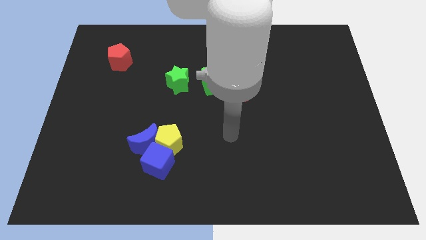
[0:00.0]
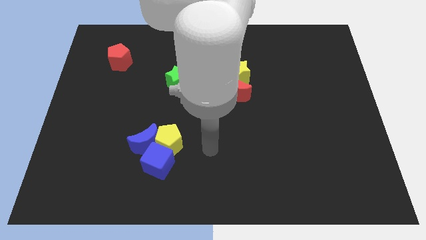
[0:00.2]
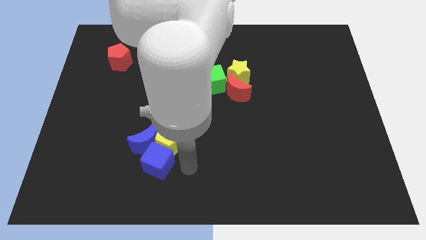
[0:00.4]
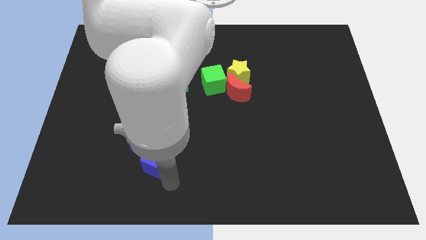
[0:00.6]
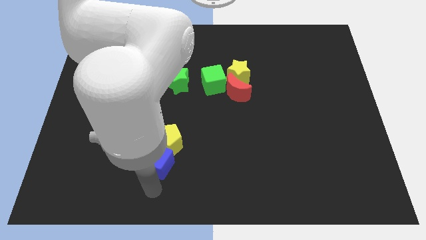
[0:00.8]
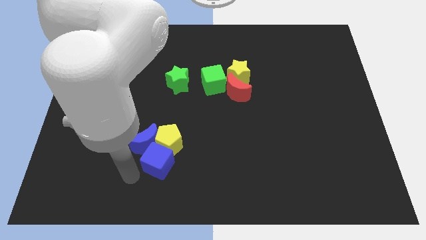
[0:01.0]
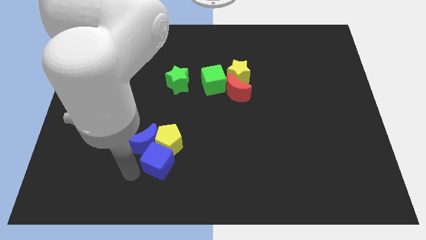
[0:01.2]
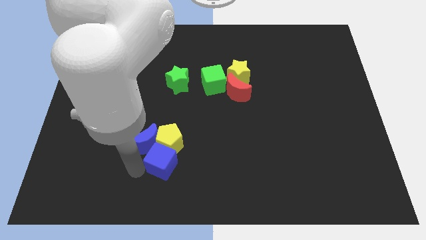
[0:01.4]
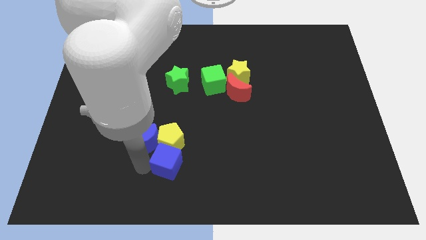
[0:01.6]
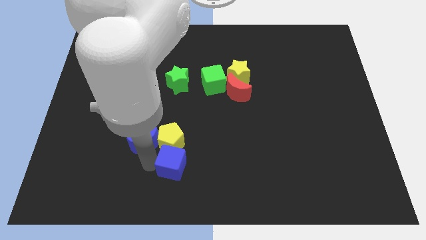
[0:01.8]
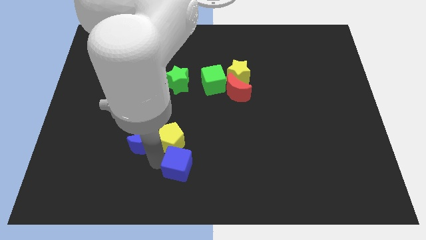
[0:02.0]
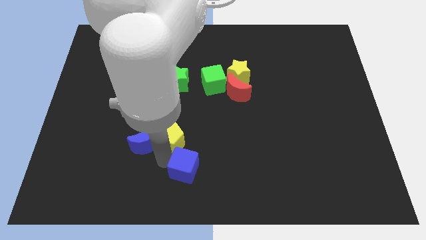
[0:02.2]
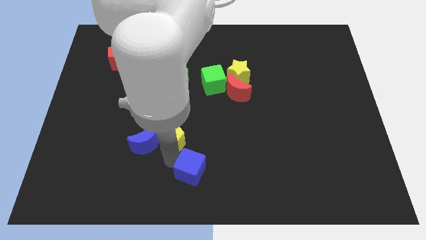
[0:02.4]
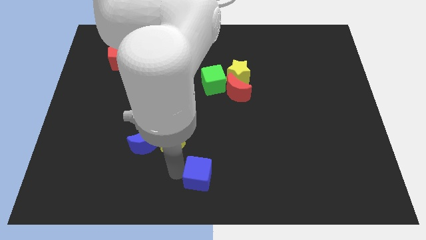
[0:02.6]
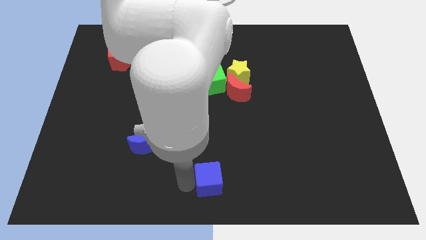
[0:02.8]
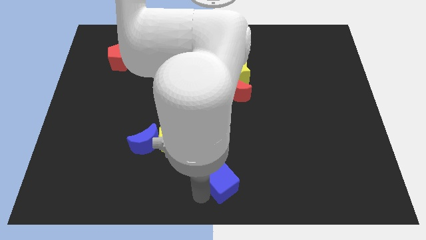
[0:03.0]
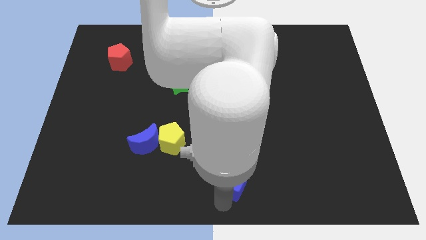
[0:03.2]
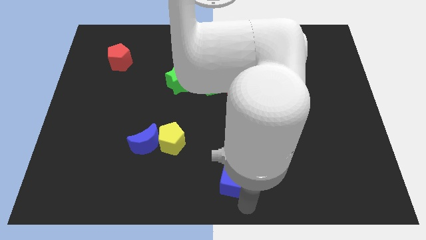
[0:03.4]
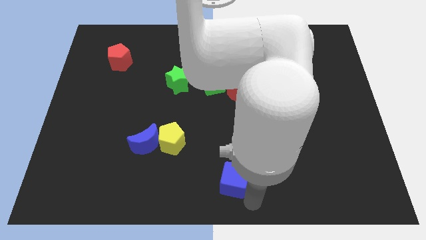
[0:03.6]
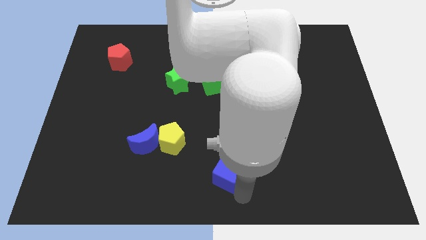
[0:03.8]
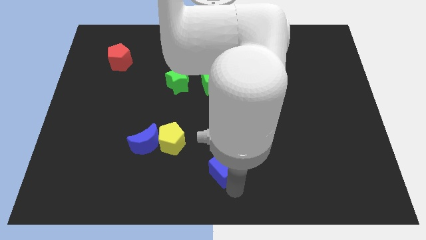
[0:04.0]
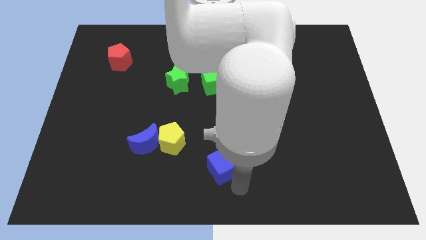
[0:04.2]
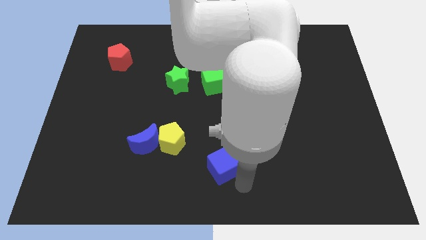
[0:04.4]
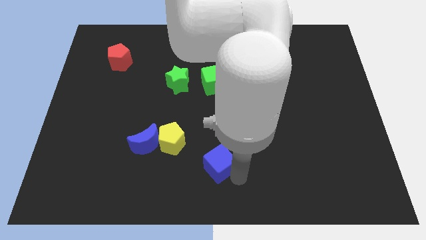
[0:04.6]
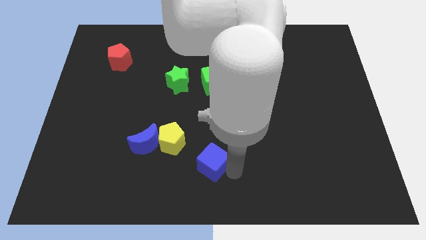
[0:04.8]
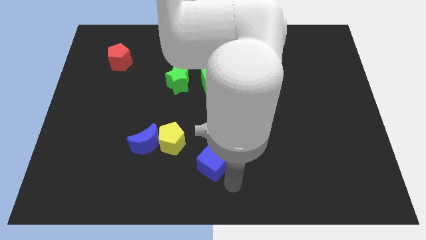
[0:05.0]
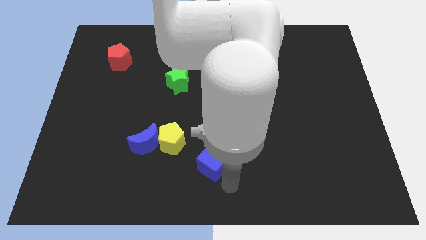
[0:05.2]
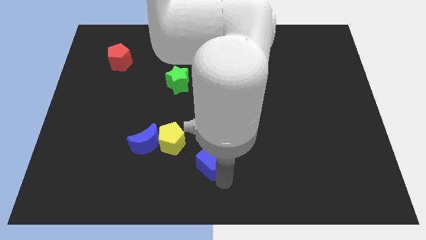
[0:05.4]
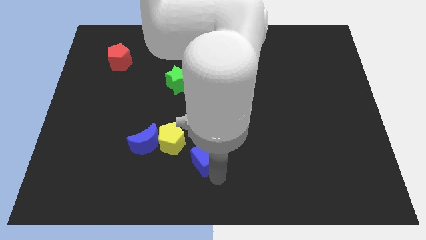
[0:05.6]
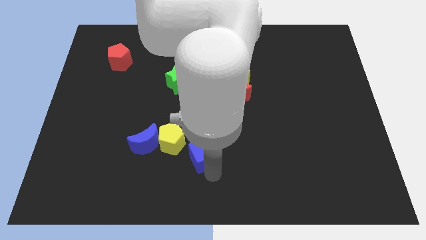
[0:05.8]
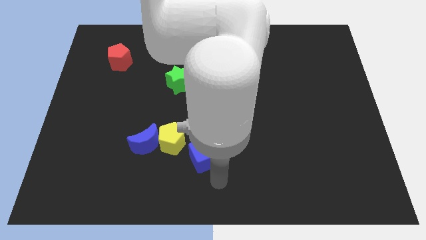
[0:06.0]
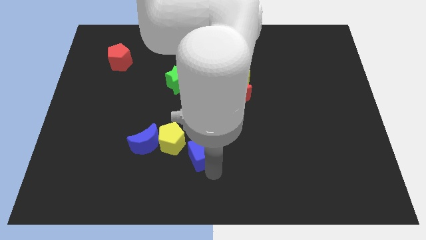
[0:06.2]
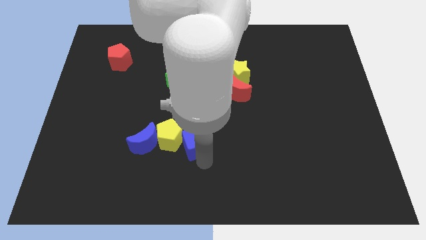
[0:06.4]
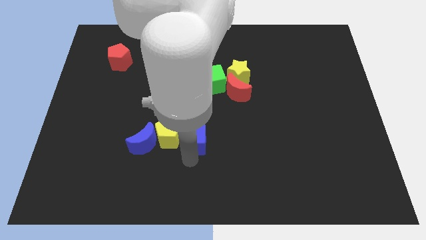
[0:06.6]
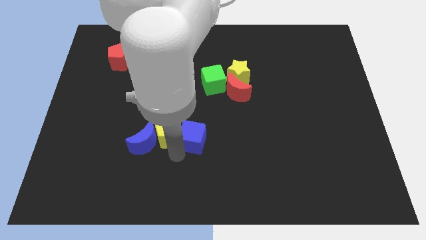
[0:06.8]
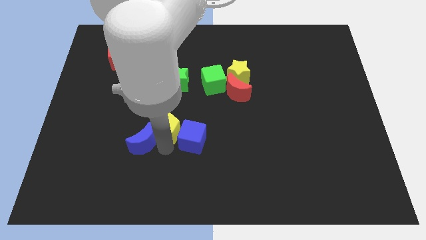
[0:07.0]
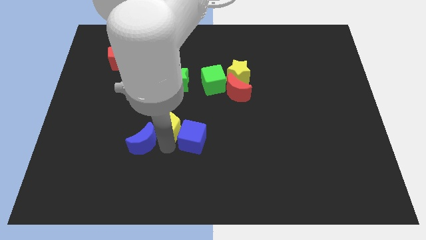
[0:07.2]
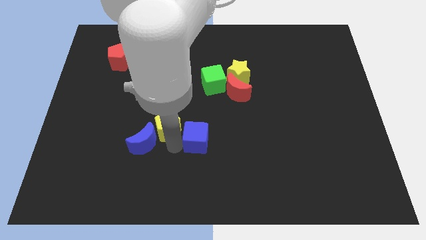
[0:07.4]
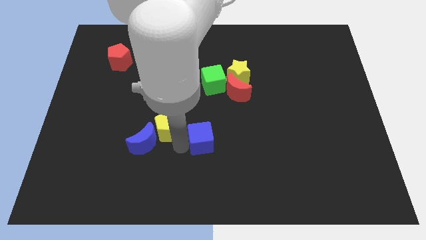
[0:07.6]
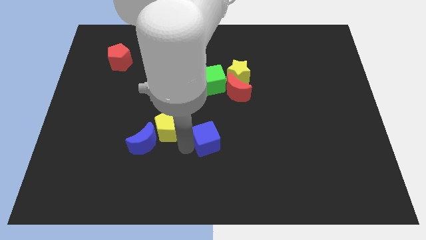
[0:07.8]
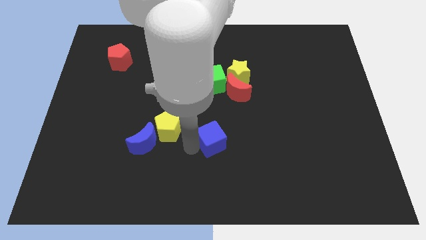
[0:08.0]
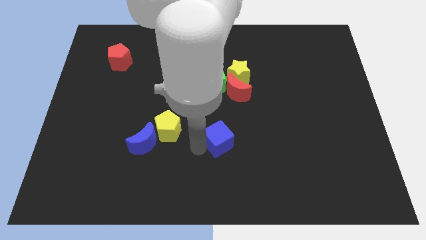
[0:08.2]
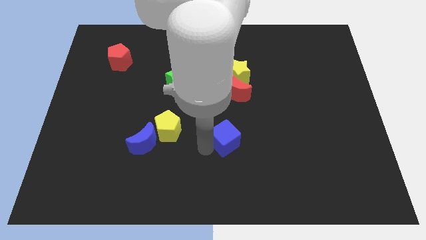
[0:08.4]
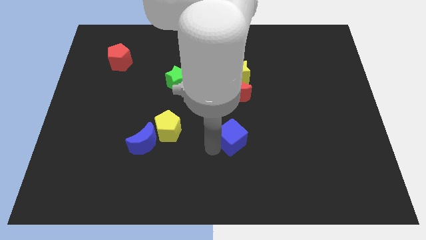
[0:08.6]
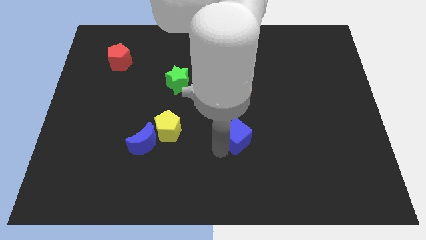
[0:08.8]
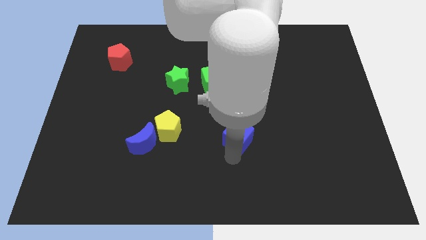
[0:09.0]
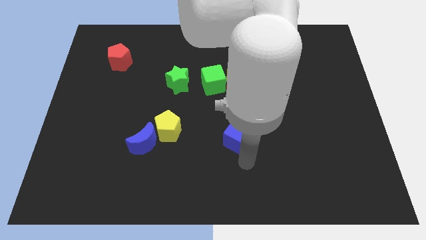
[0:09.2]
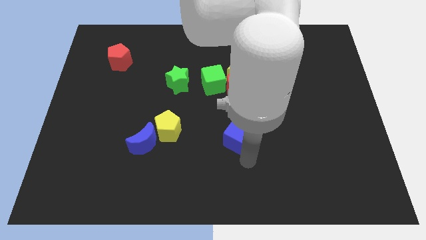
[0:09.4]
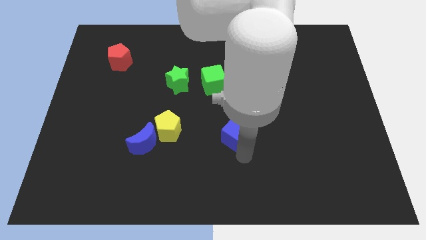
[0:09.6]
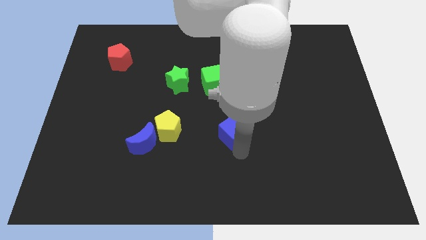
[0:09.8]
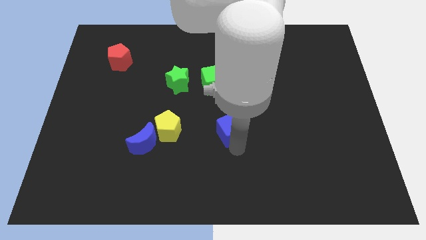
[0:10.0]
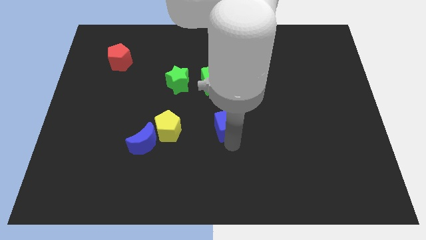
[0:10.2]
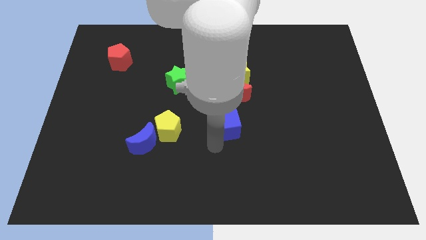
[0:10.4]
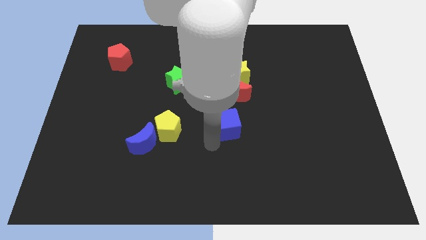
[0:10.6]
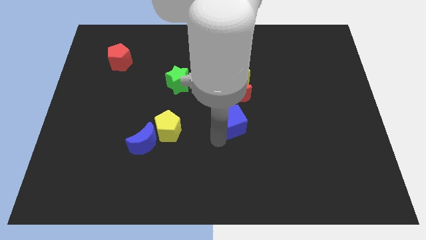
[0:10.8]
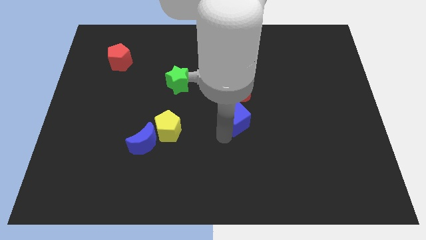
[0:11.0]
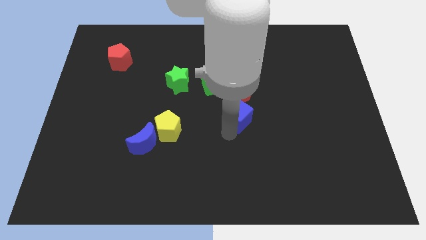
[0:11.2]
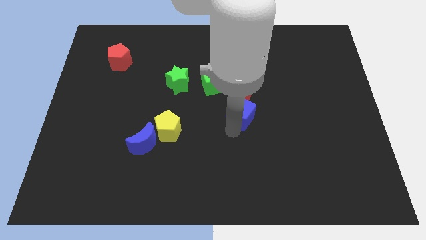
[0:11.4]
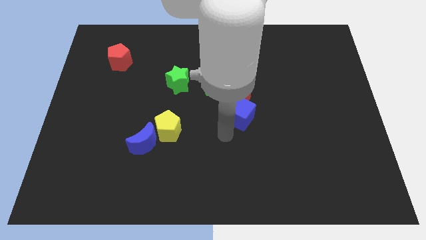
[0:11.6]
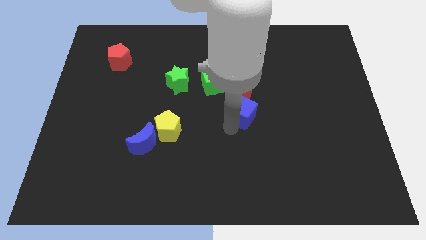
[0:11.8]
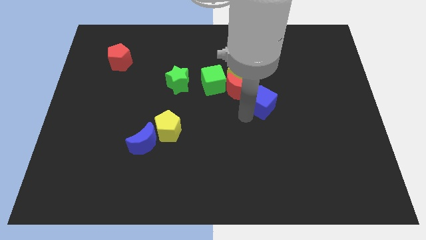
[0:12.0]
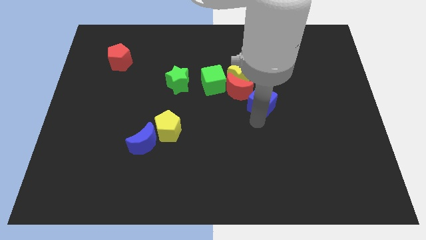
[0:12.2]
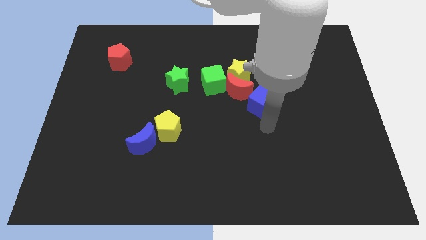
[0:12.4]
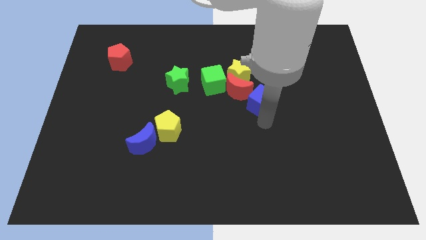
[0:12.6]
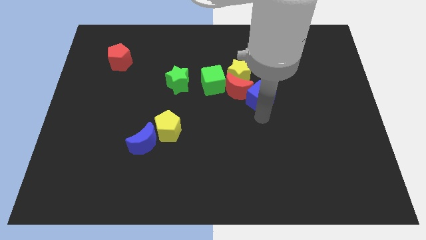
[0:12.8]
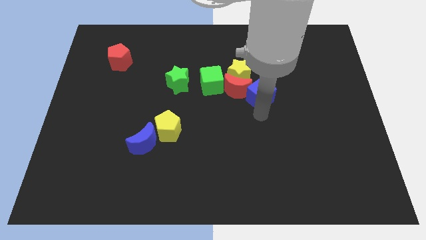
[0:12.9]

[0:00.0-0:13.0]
push the blue cube to the right side of the green cube
